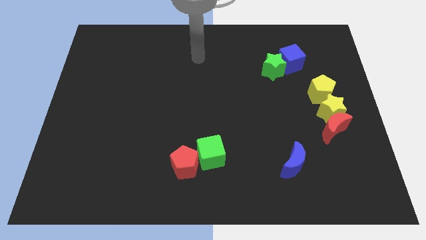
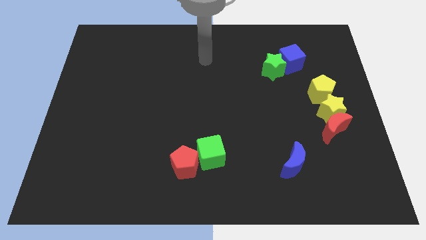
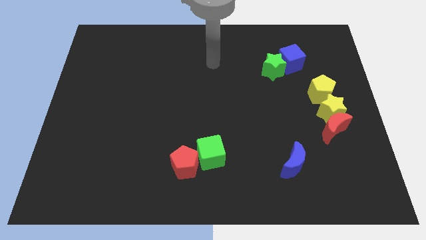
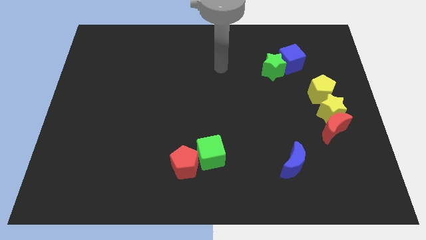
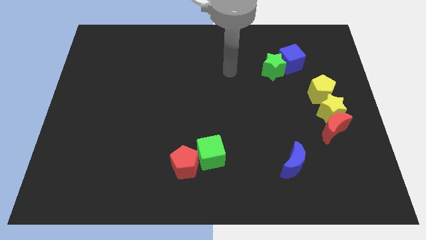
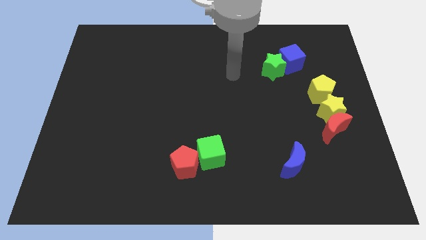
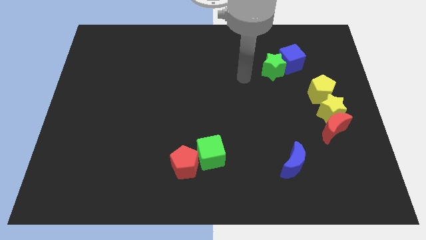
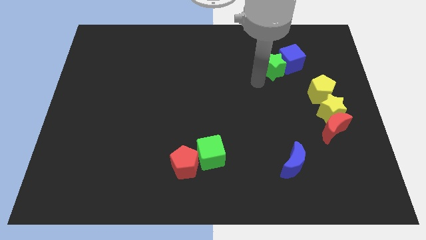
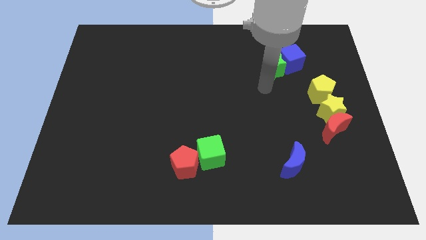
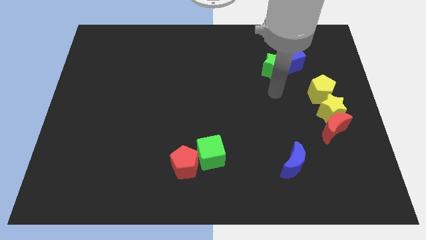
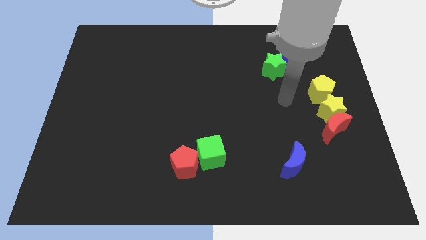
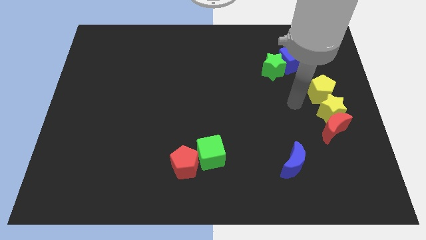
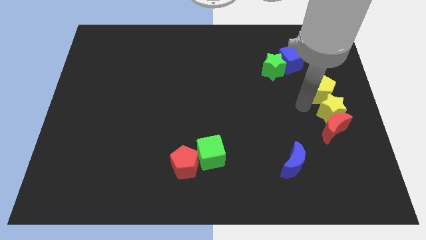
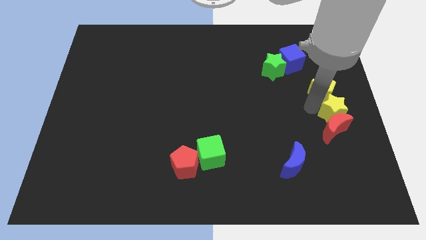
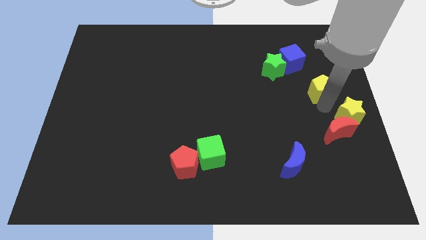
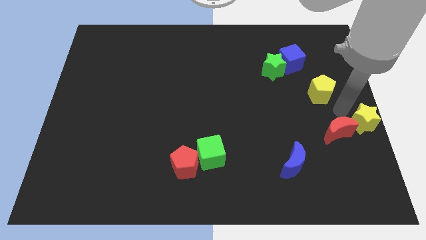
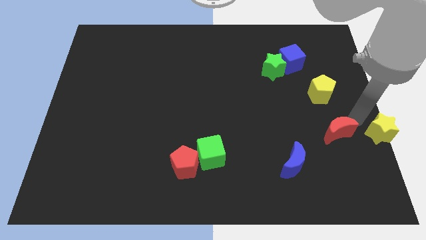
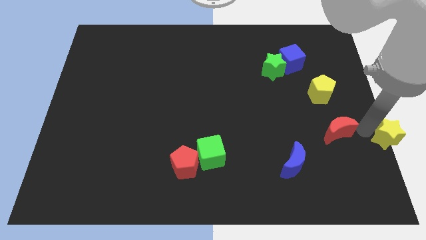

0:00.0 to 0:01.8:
pull the red moon apart from the yellow star

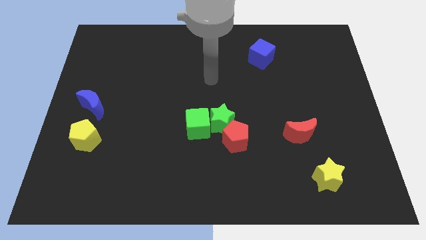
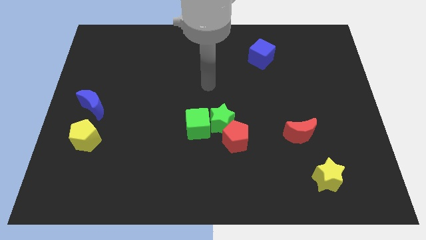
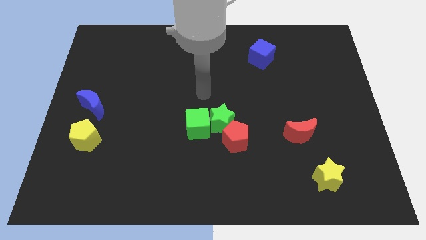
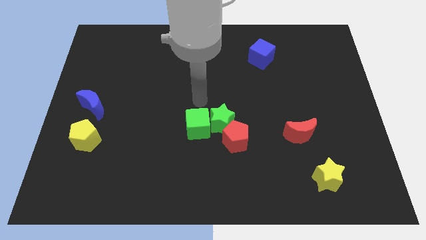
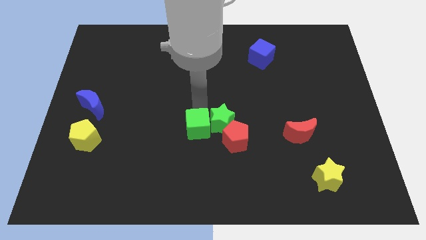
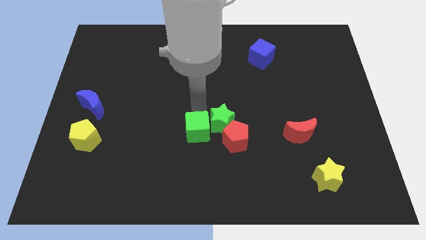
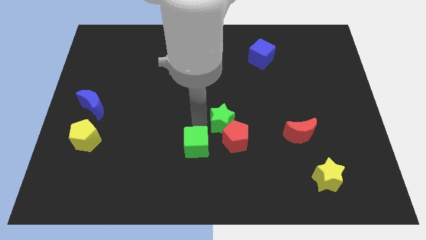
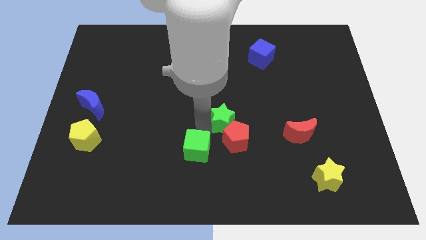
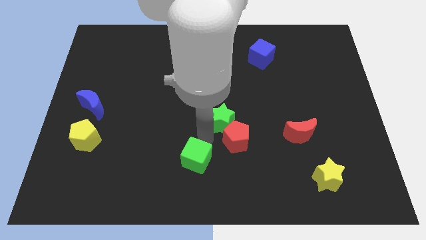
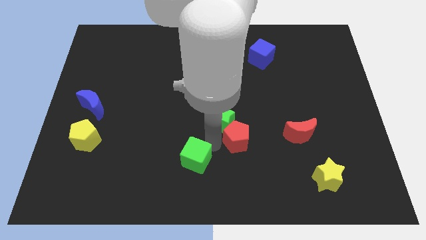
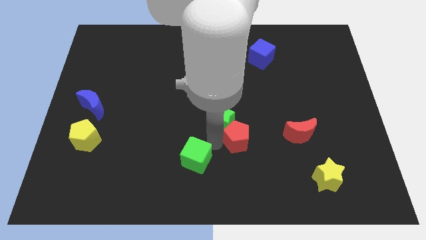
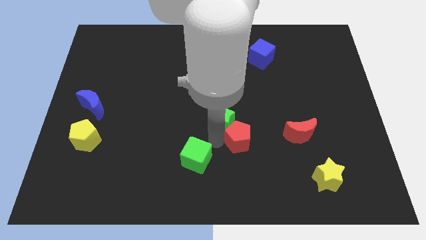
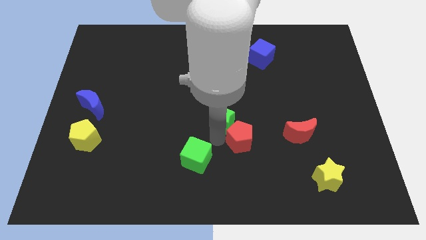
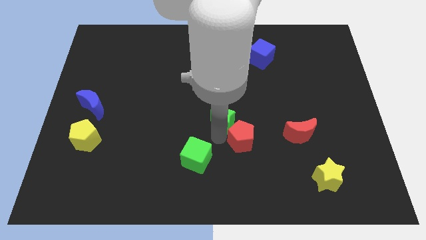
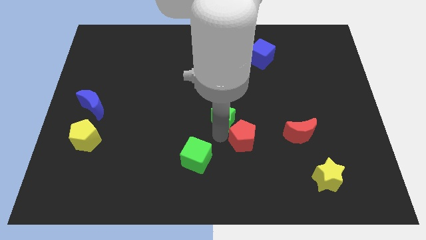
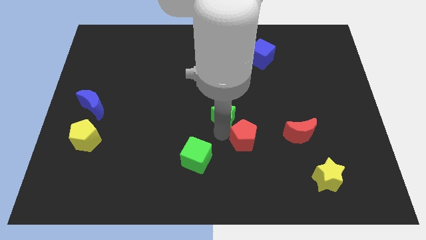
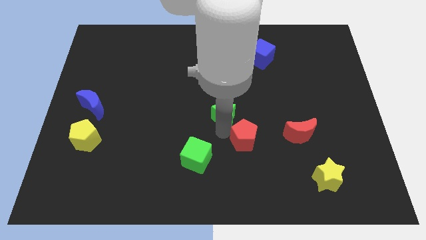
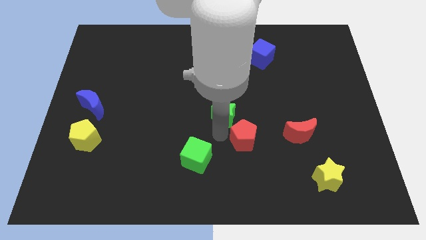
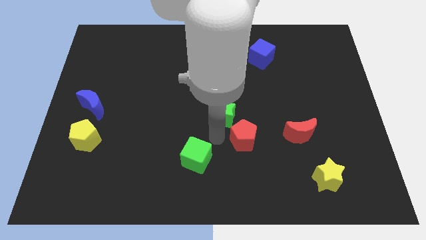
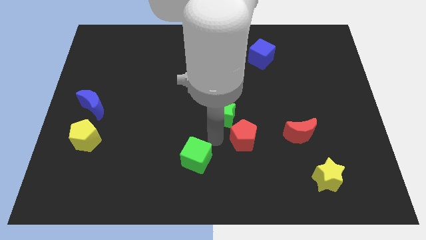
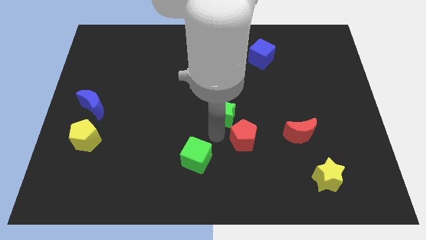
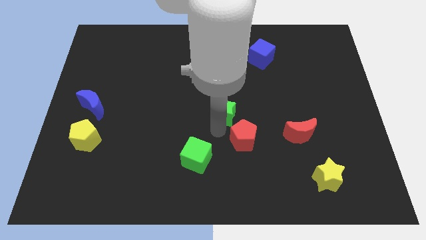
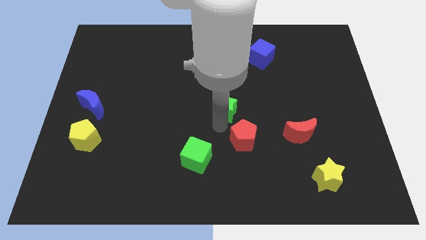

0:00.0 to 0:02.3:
move the green star away from the green cube and red pentagon

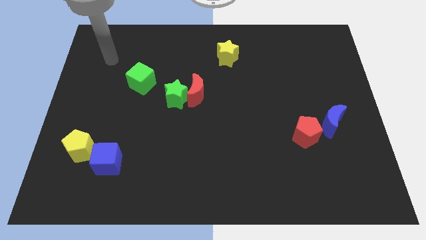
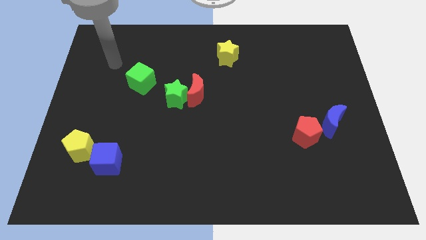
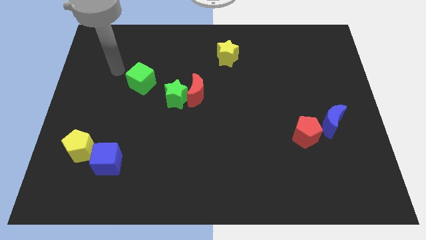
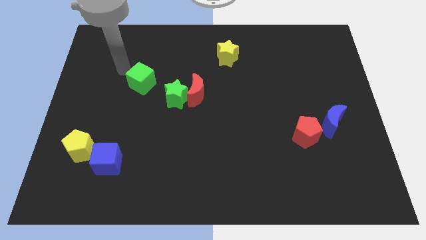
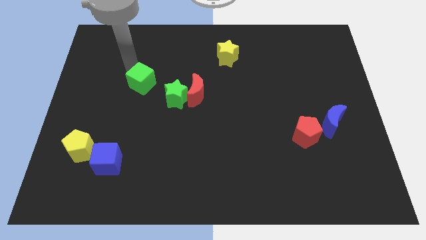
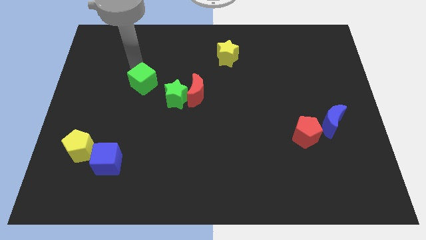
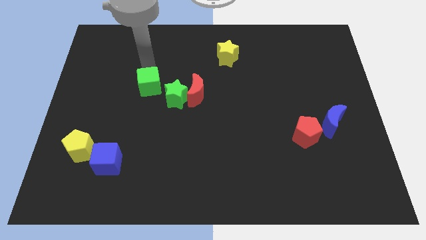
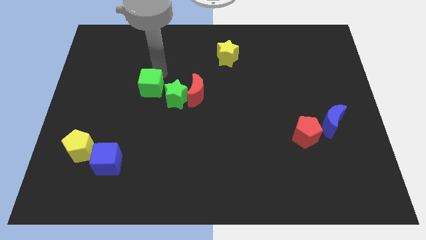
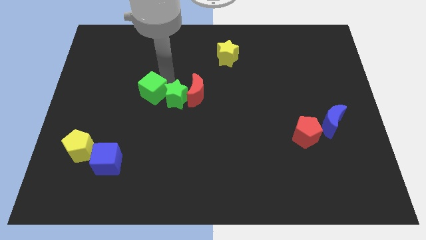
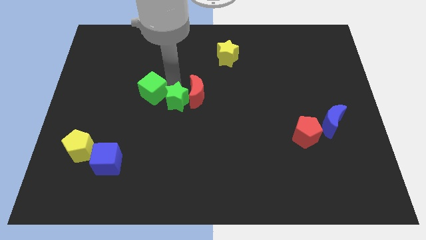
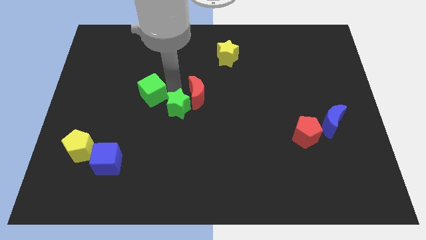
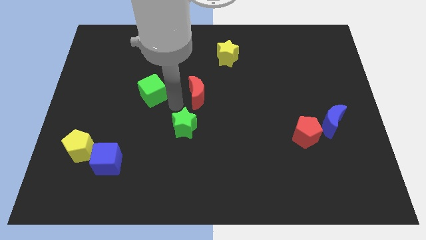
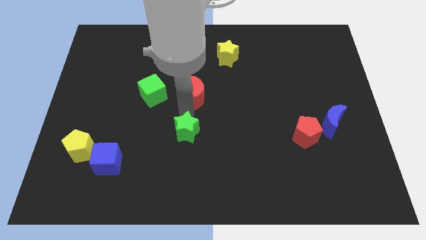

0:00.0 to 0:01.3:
move the red moon away from the green star

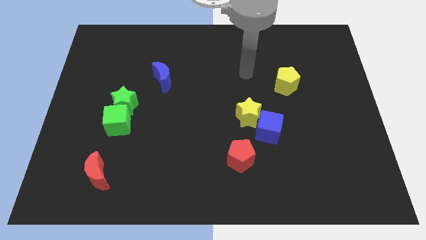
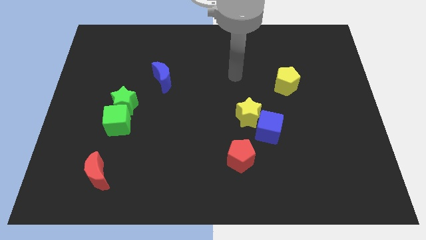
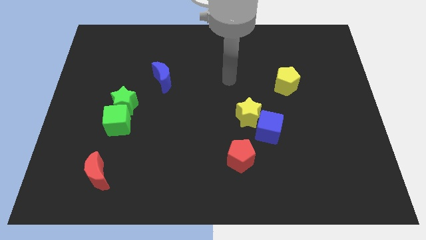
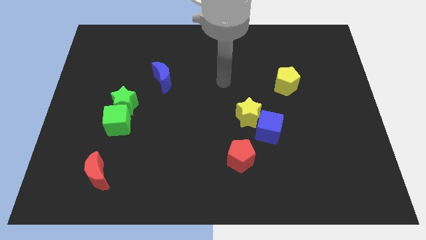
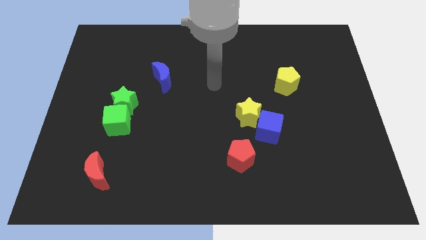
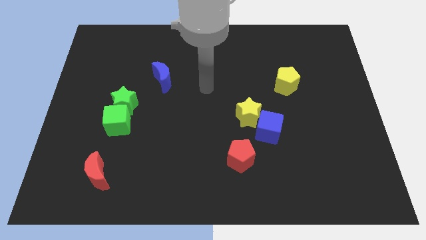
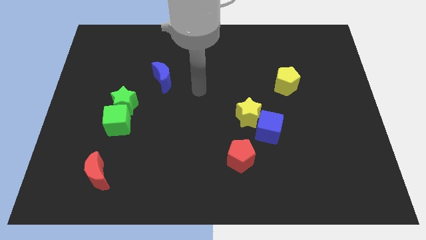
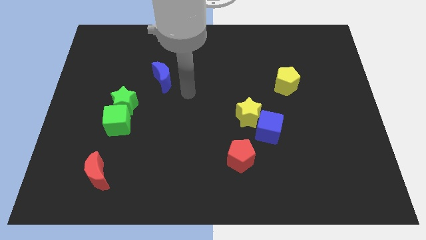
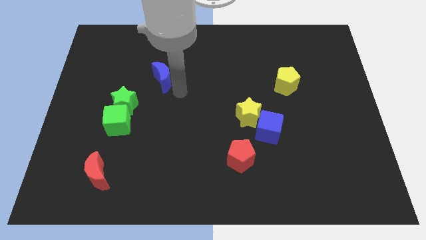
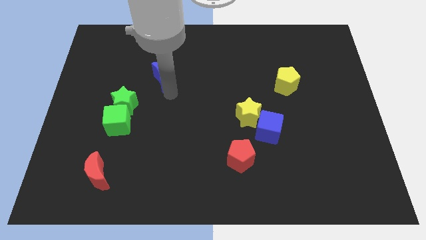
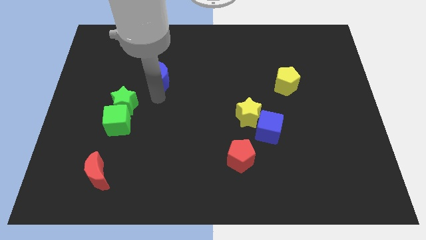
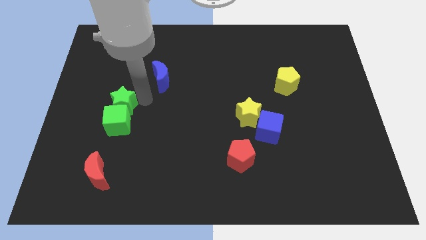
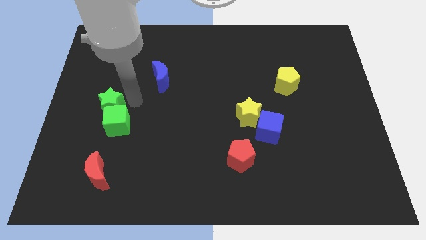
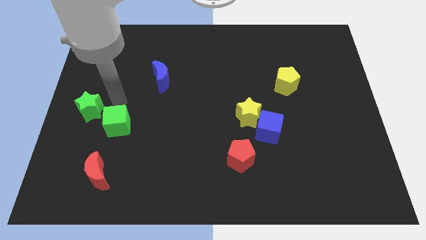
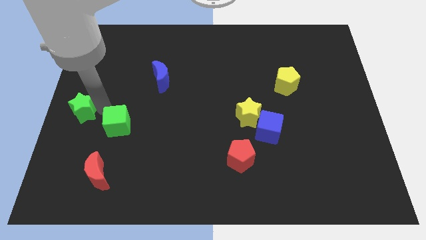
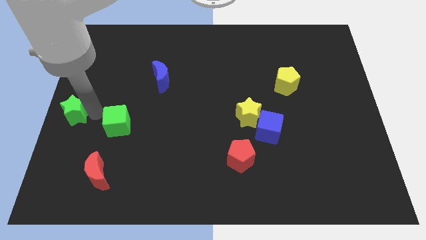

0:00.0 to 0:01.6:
separate the green cube from the green star

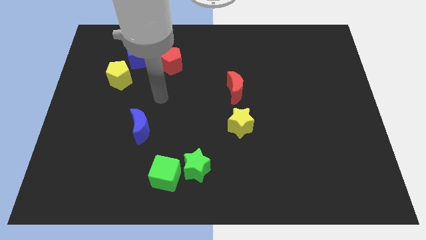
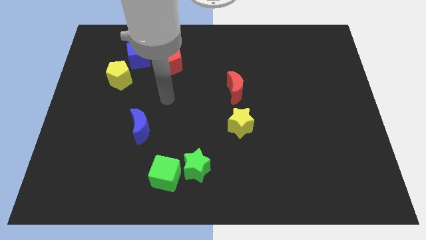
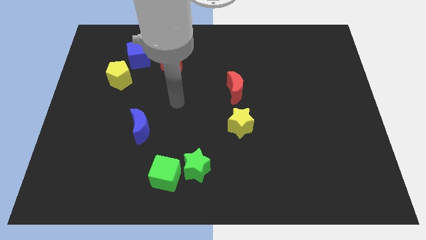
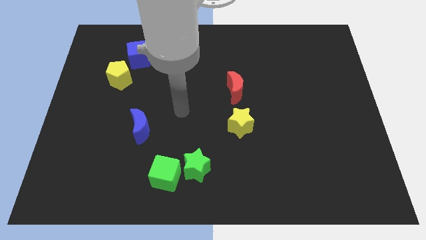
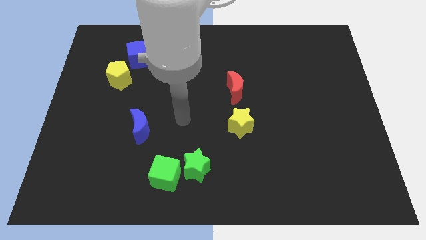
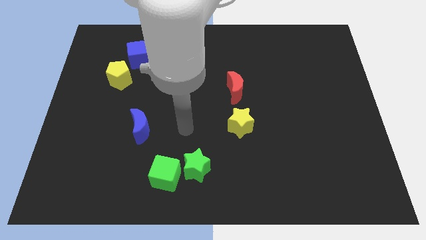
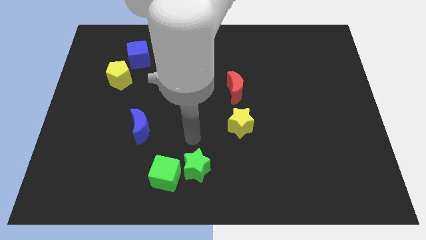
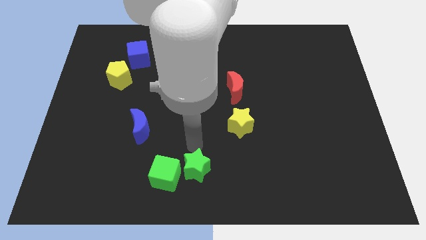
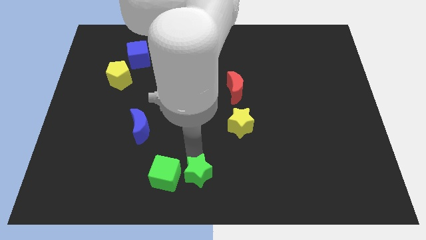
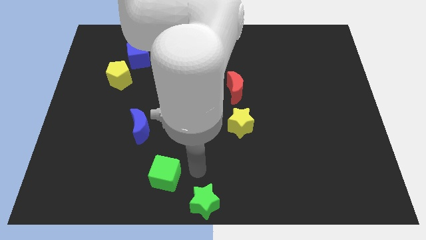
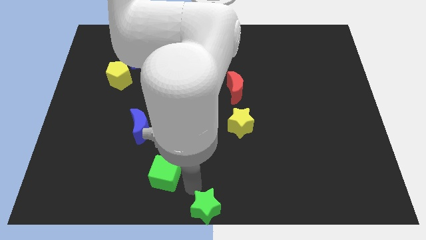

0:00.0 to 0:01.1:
pull the green cube apart from the green star

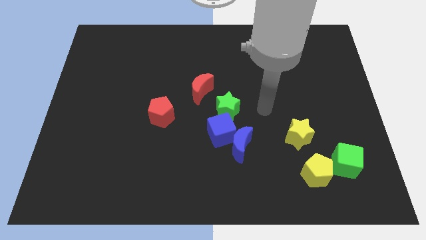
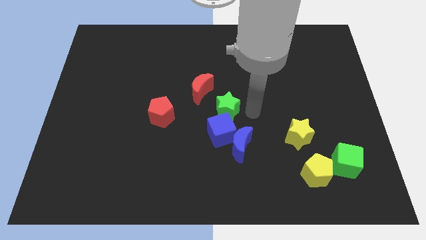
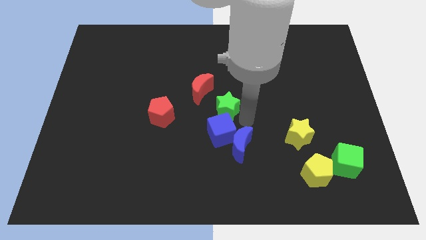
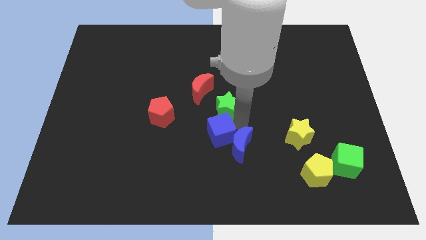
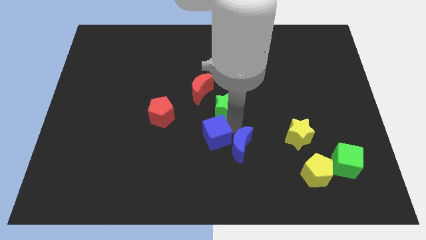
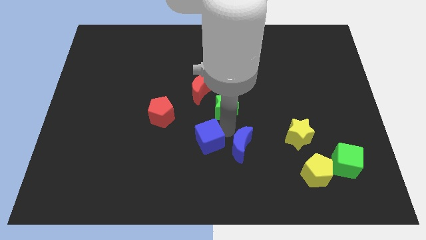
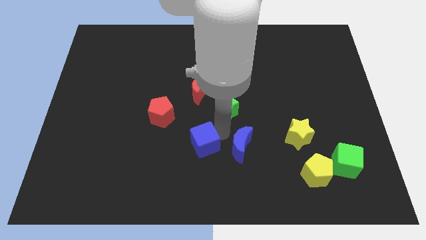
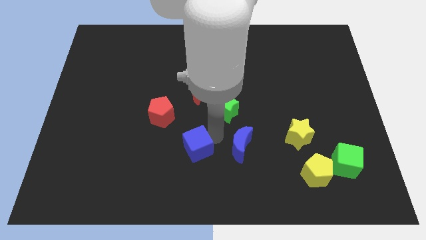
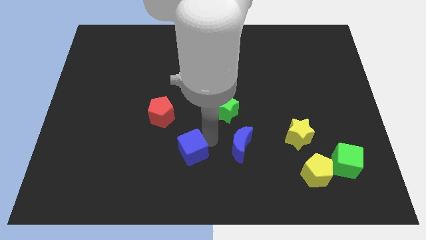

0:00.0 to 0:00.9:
move the blue cube away from the blue moon and green star

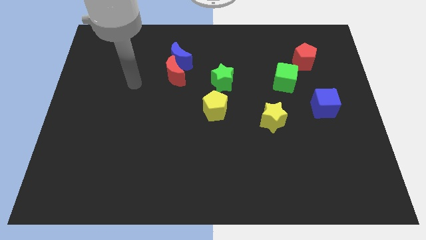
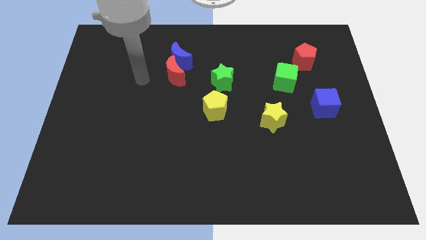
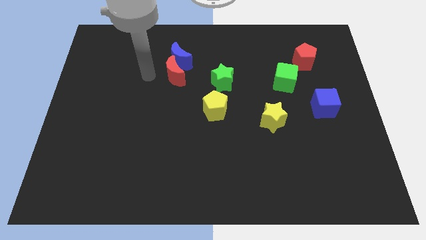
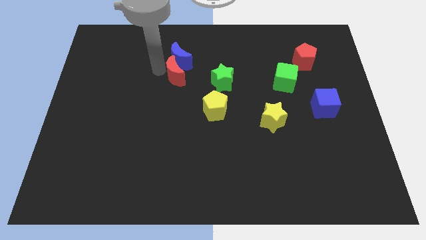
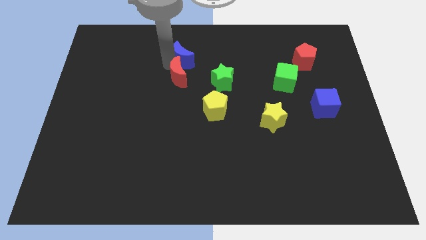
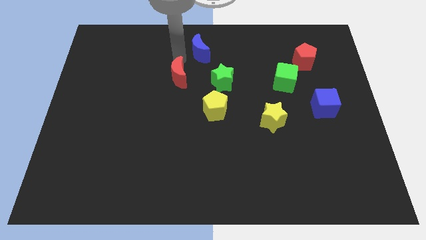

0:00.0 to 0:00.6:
move the red moon away from the blue moon
